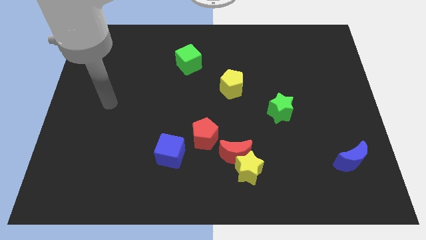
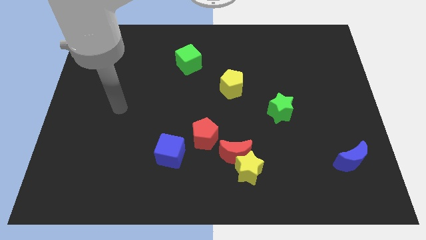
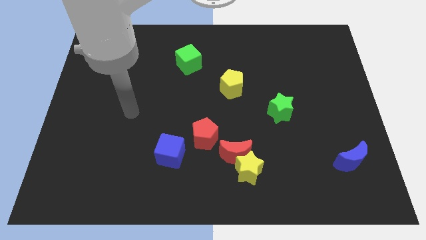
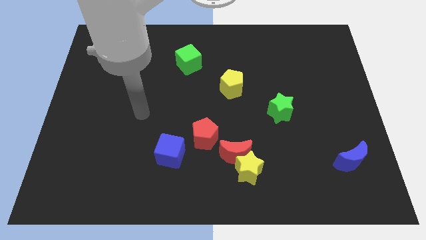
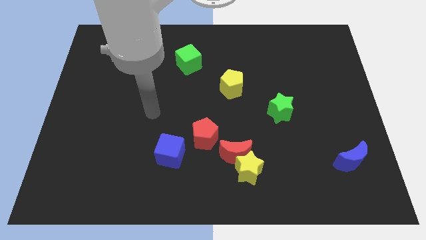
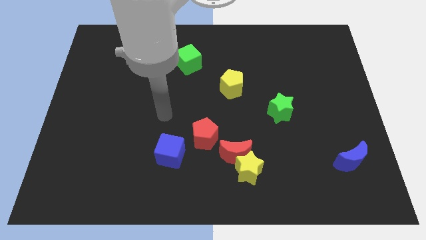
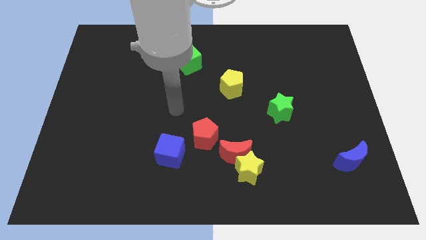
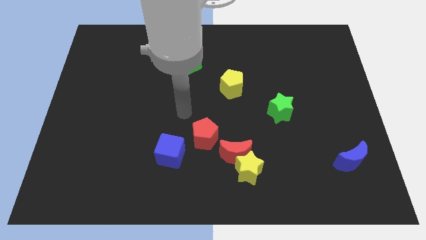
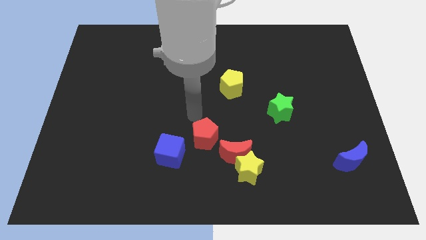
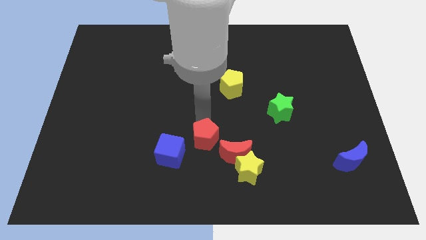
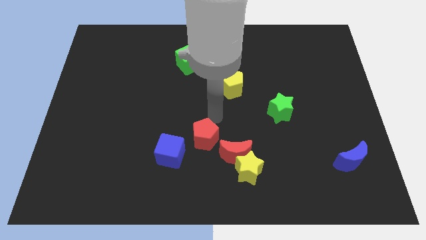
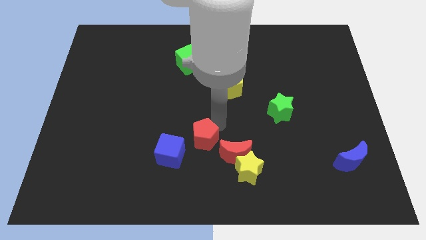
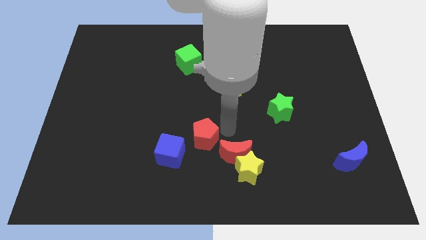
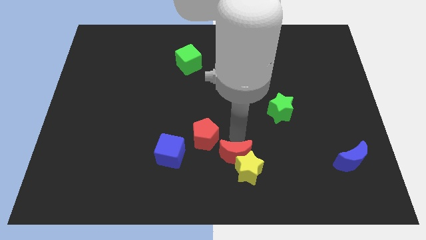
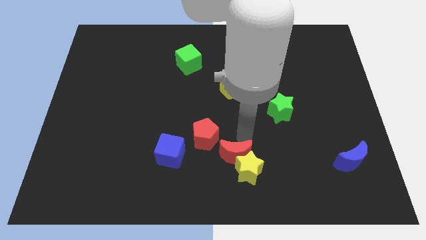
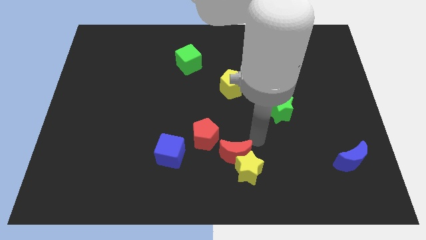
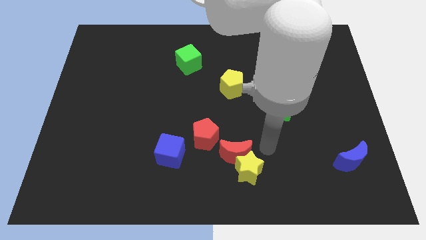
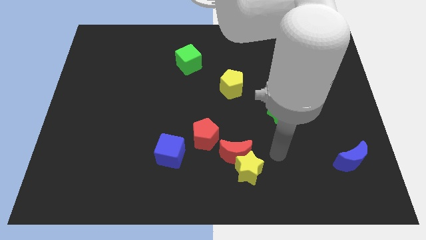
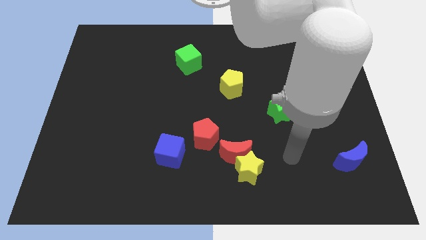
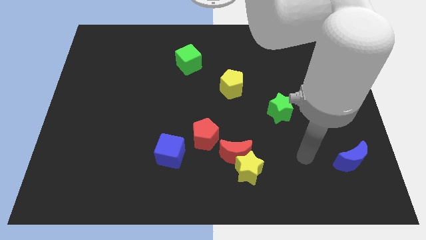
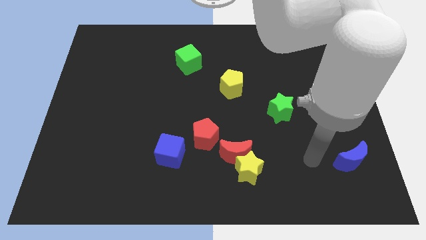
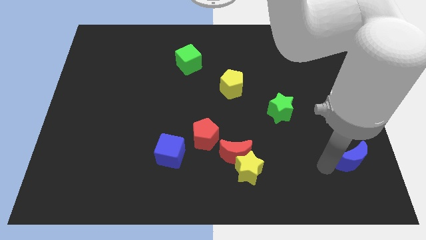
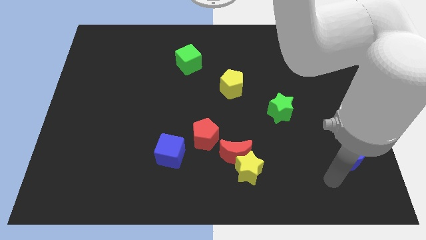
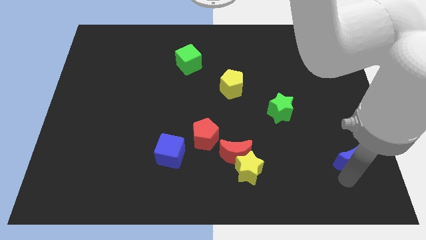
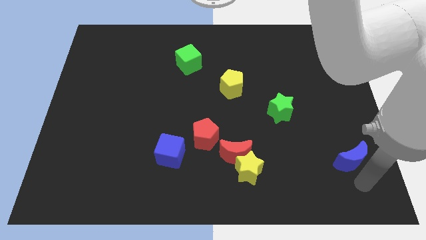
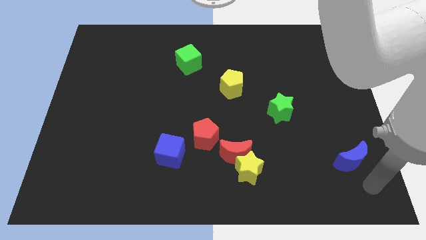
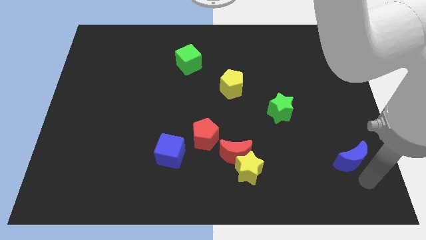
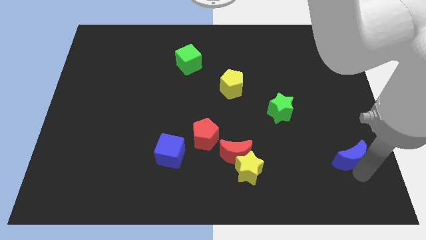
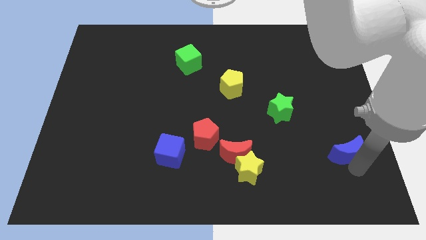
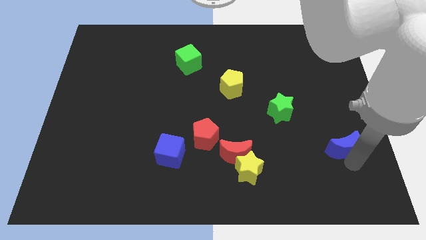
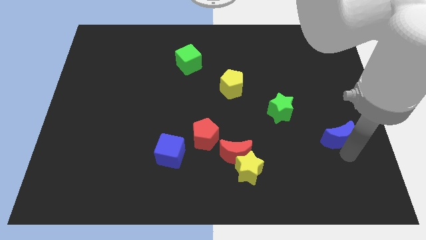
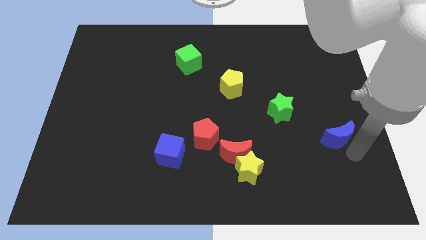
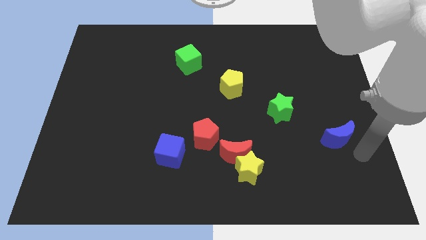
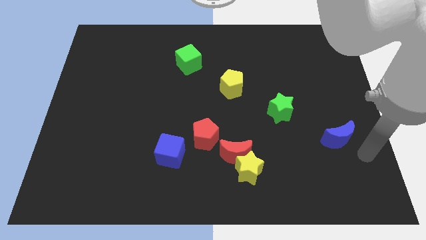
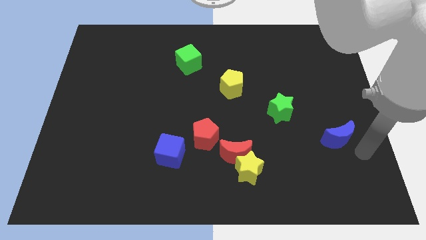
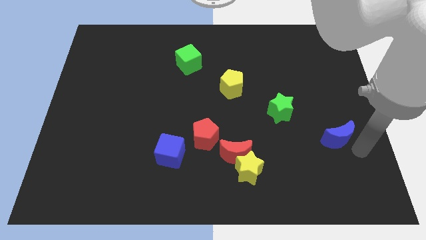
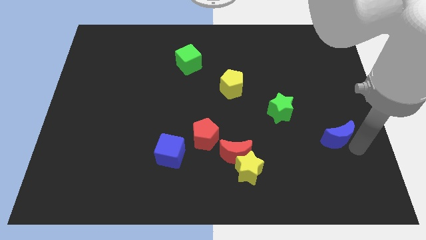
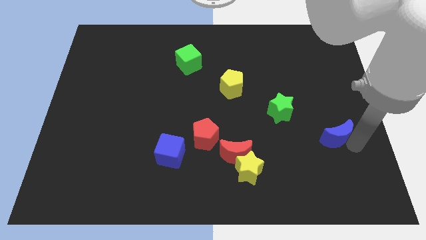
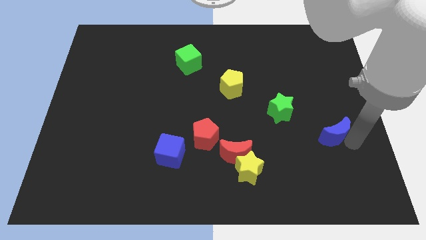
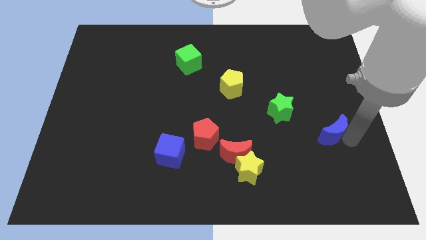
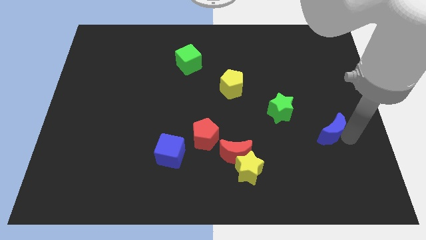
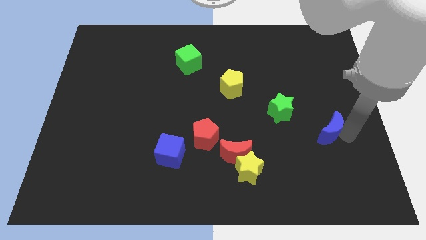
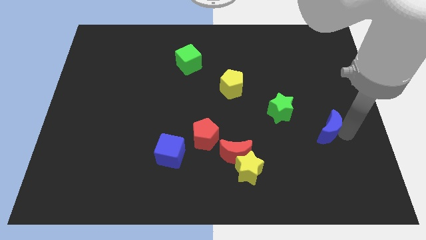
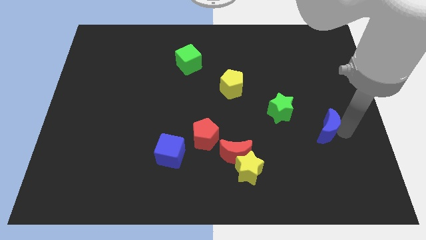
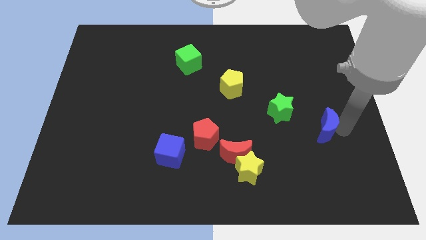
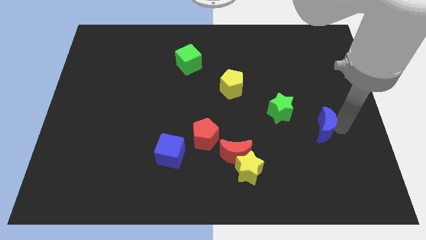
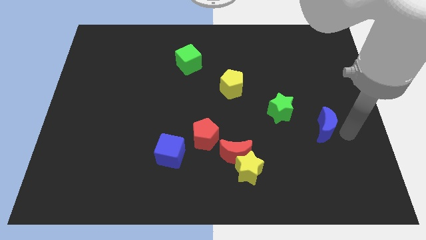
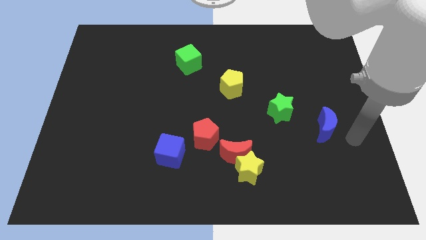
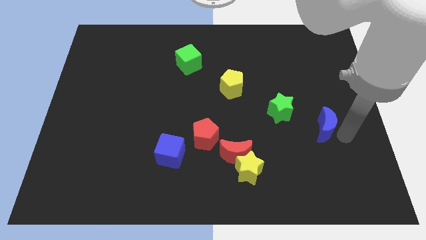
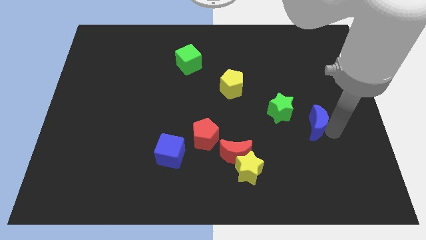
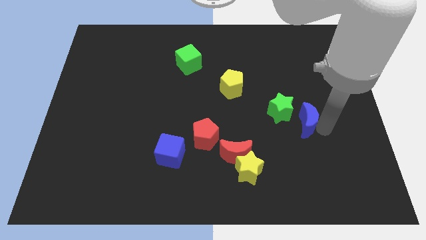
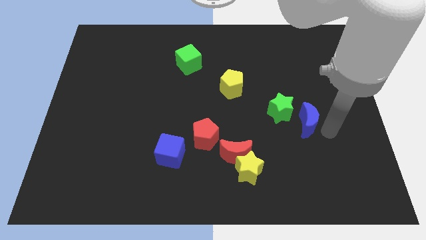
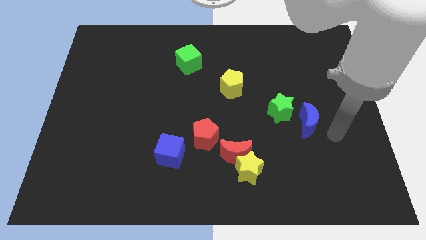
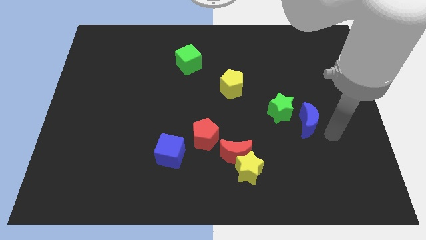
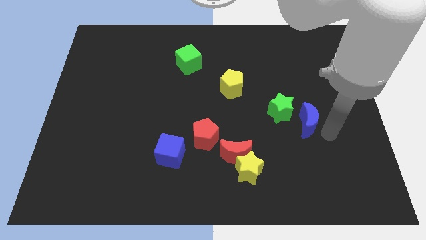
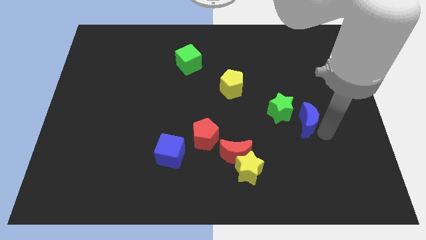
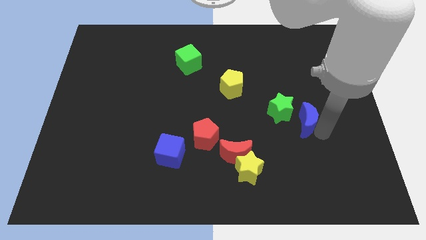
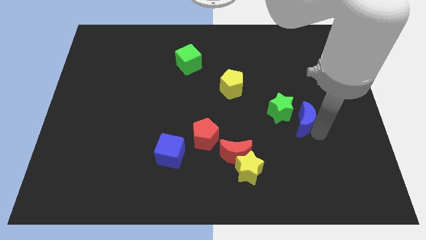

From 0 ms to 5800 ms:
move the blue moon next to the green star

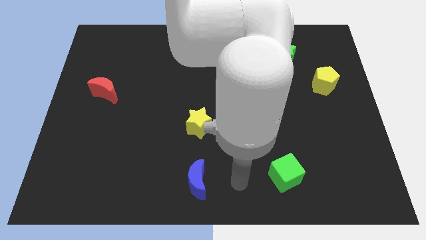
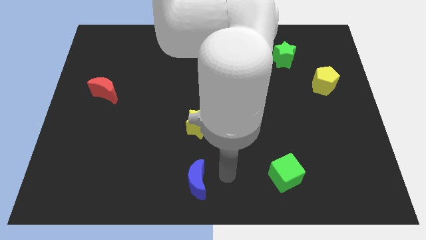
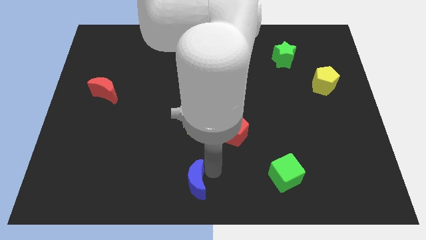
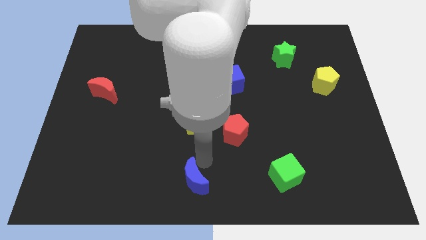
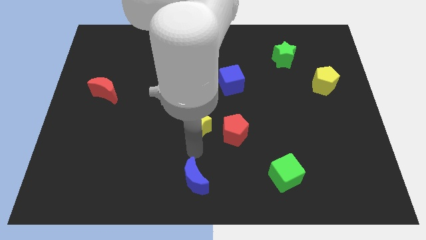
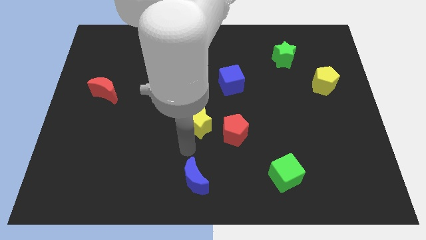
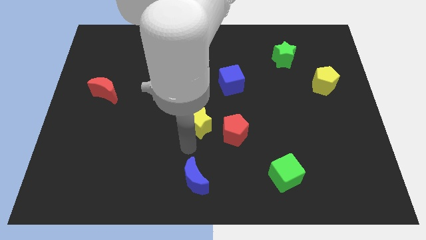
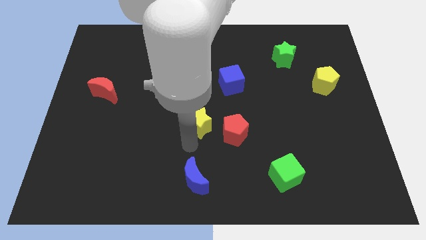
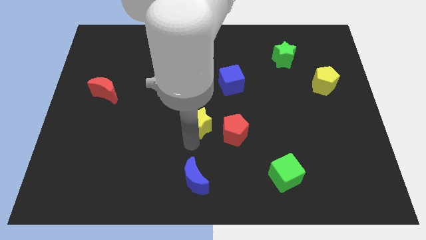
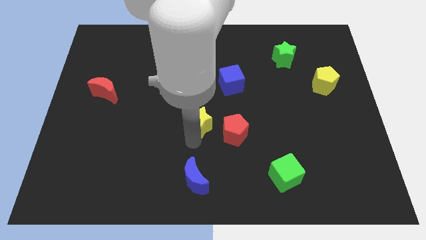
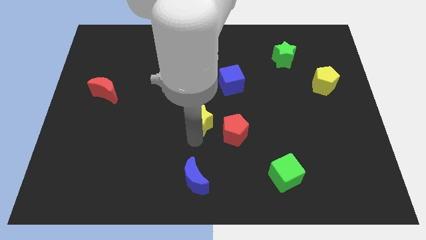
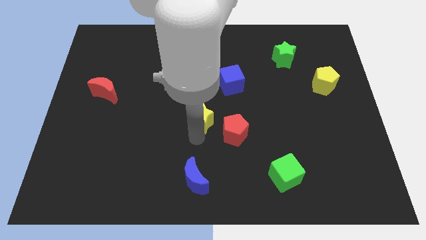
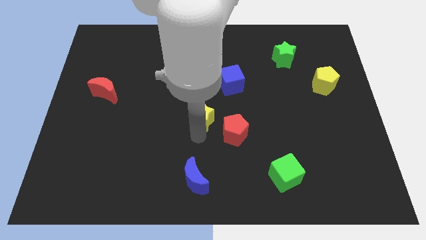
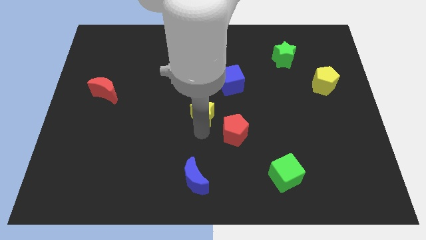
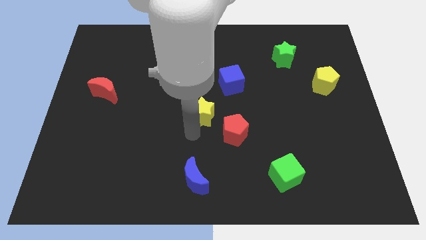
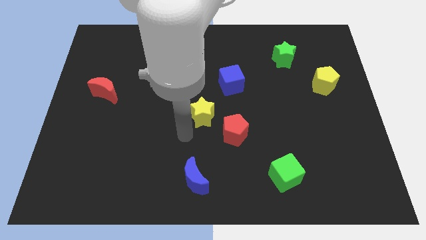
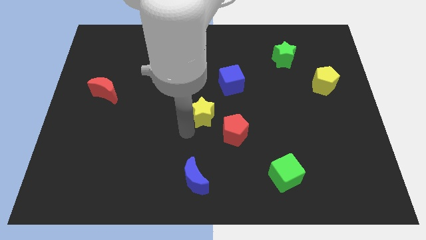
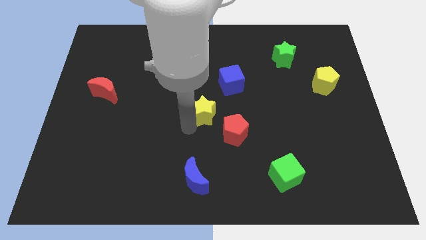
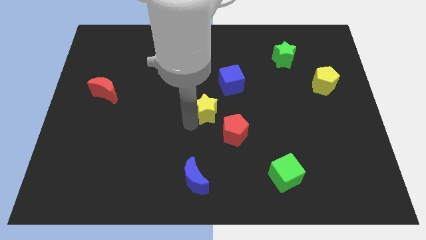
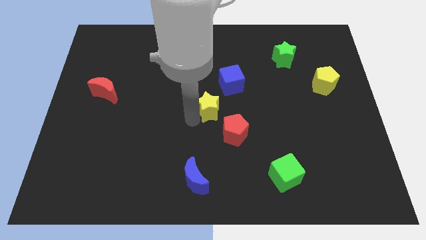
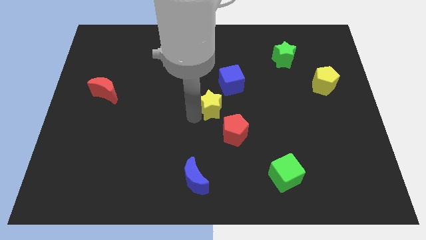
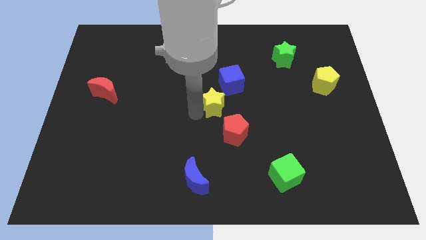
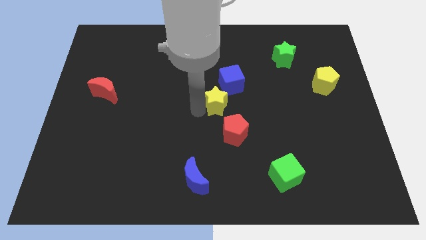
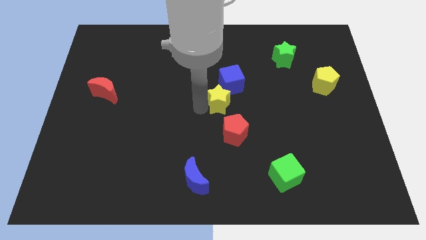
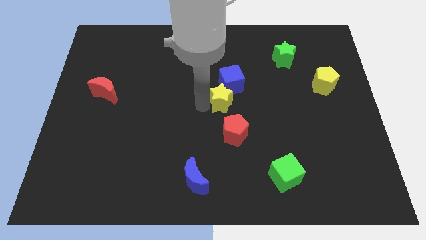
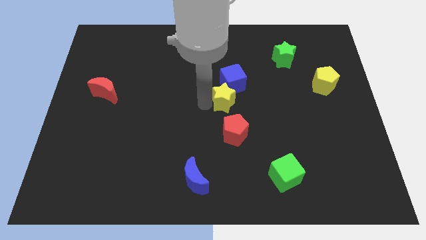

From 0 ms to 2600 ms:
slide the yellow star next to the blue cube
